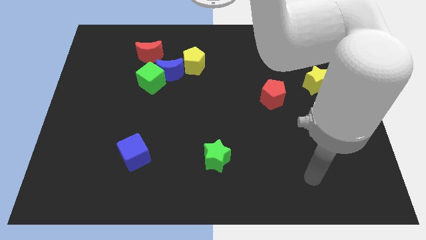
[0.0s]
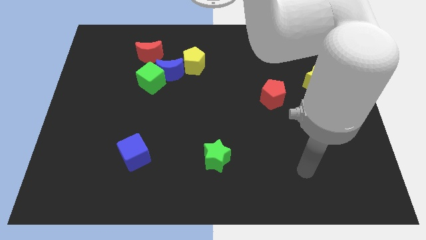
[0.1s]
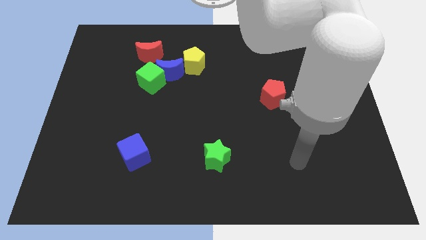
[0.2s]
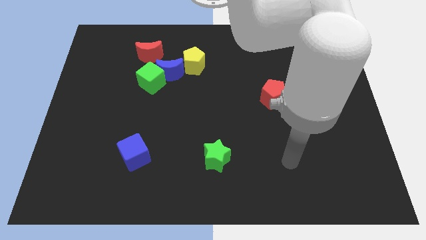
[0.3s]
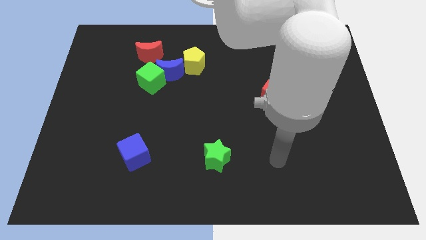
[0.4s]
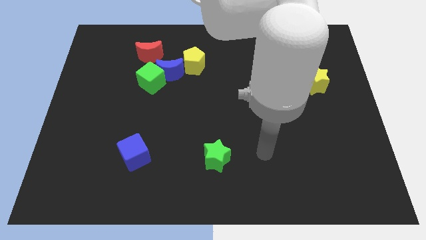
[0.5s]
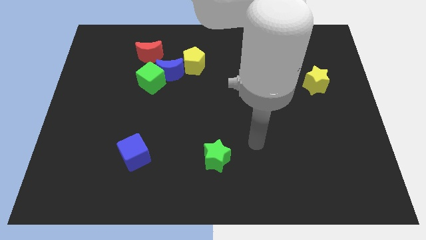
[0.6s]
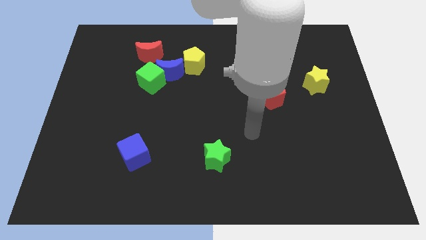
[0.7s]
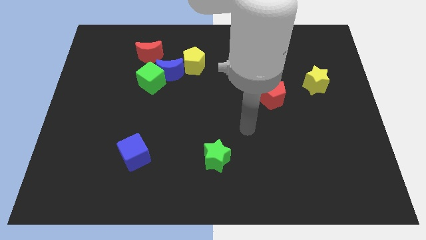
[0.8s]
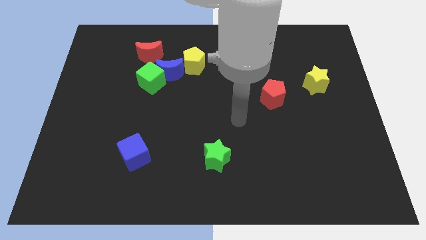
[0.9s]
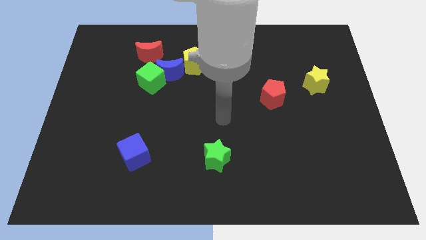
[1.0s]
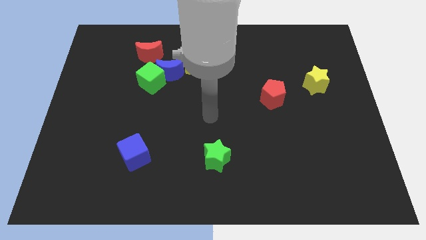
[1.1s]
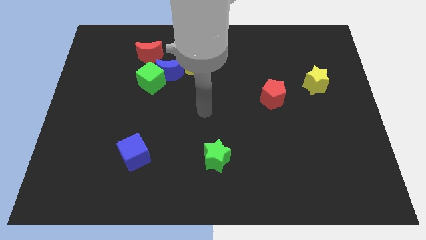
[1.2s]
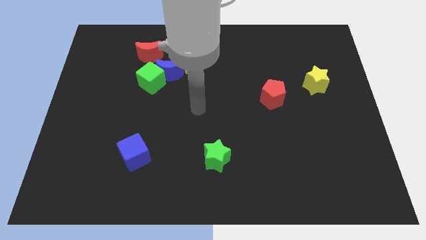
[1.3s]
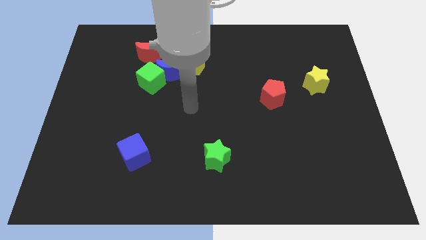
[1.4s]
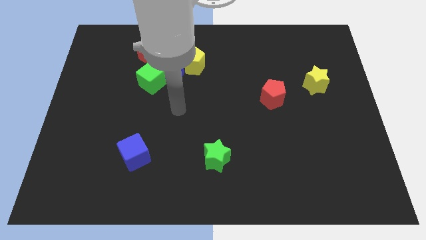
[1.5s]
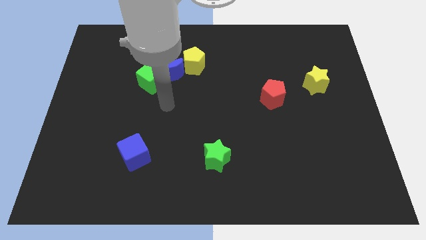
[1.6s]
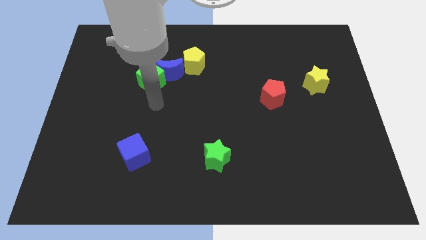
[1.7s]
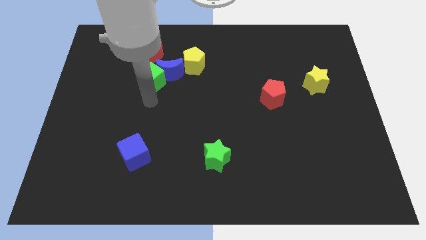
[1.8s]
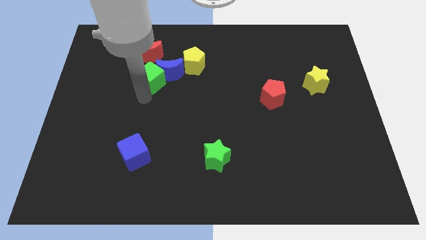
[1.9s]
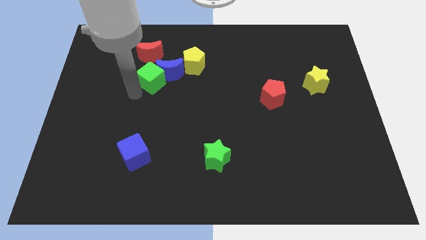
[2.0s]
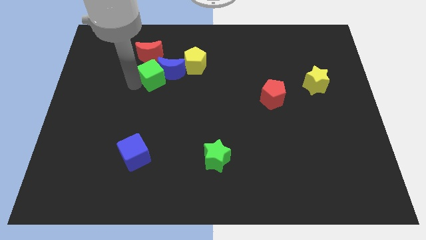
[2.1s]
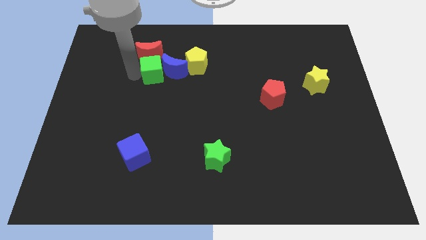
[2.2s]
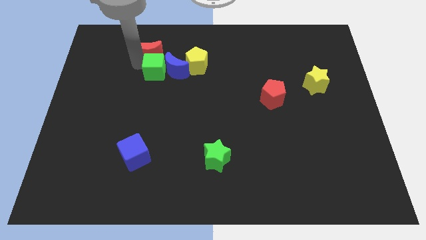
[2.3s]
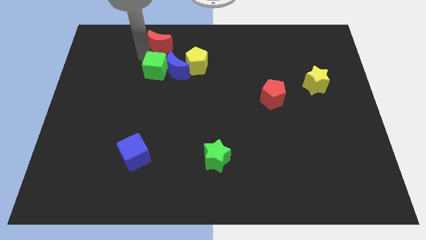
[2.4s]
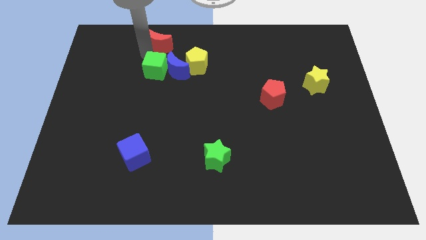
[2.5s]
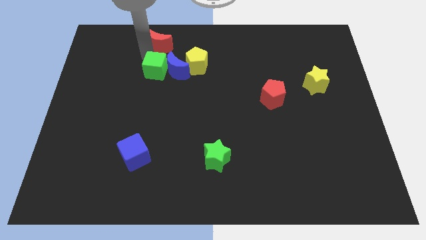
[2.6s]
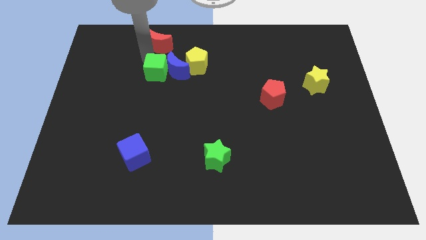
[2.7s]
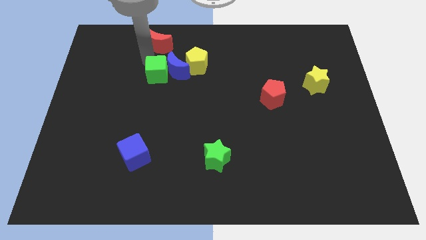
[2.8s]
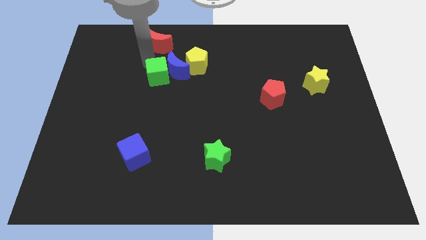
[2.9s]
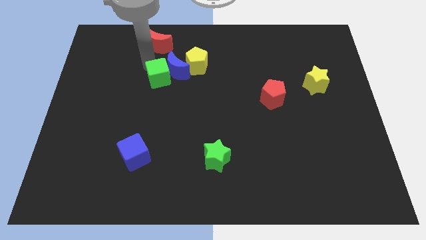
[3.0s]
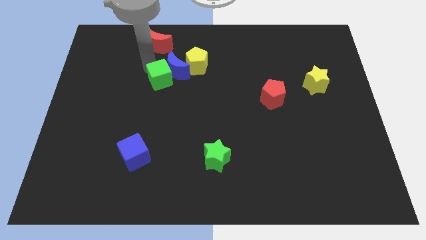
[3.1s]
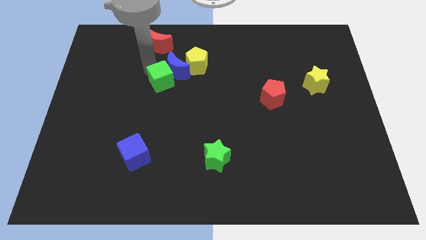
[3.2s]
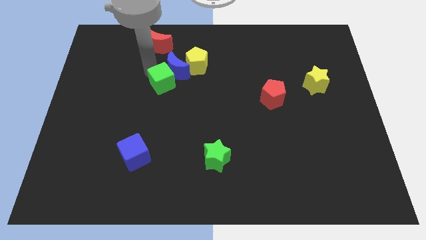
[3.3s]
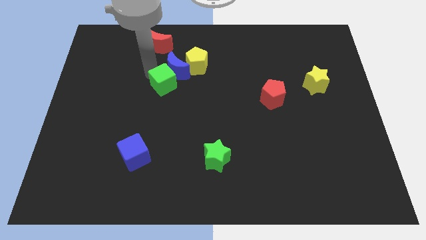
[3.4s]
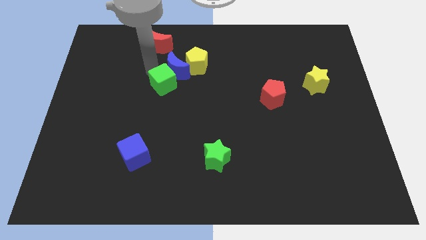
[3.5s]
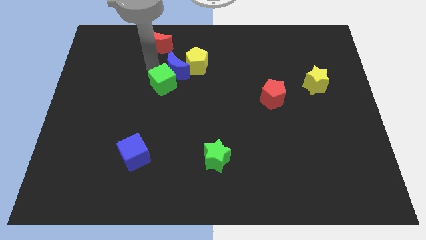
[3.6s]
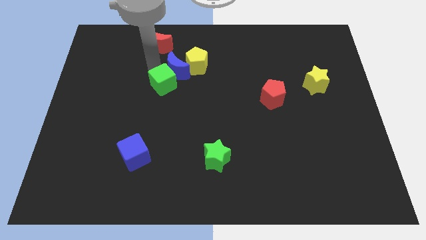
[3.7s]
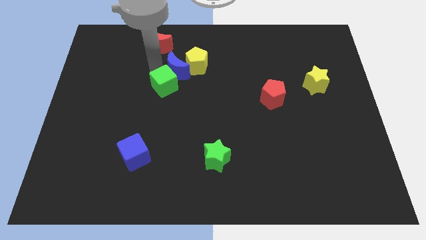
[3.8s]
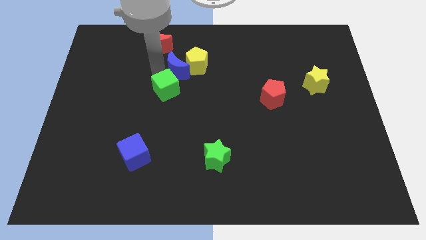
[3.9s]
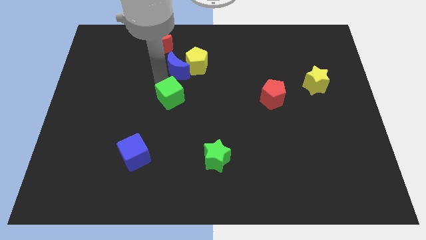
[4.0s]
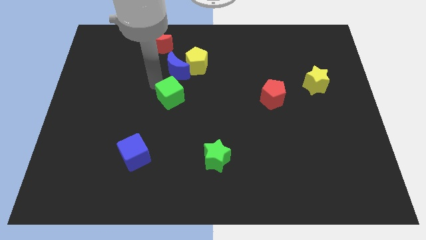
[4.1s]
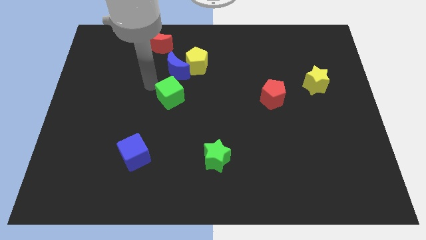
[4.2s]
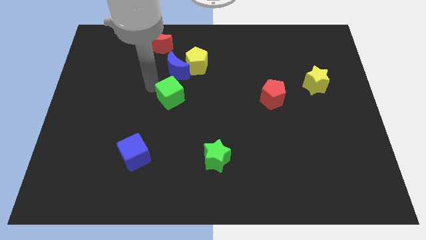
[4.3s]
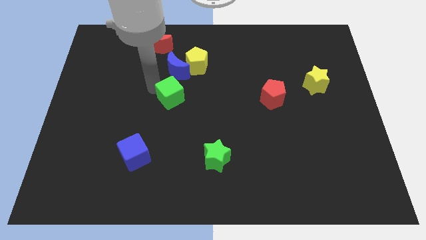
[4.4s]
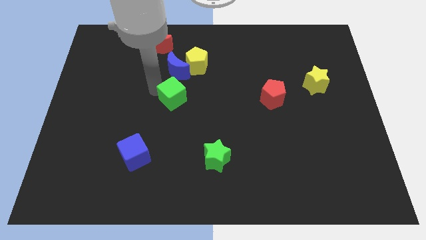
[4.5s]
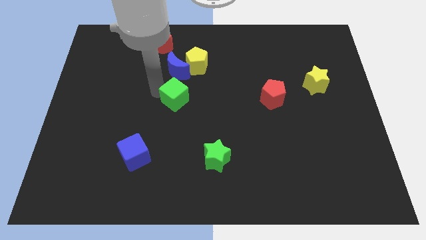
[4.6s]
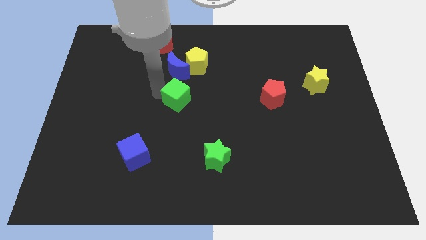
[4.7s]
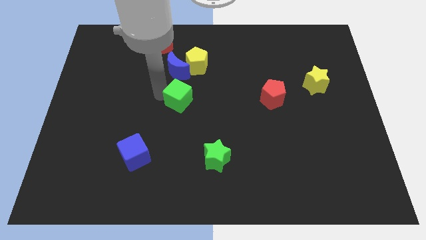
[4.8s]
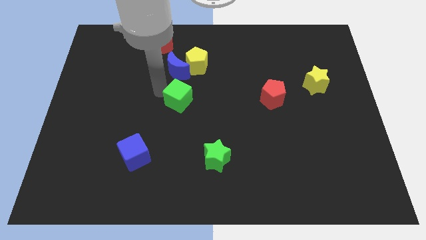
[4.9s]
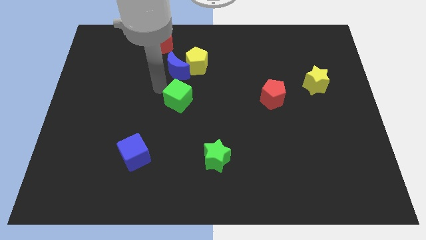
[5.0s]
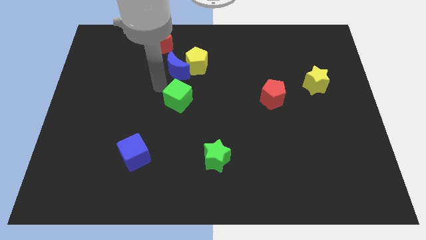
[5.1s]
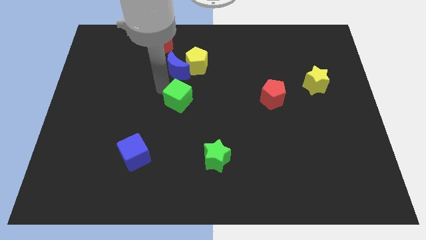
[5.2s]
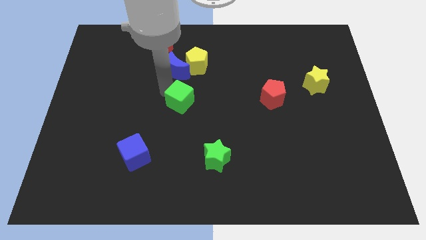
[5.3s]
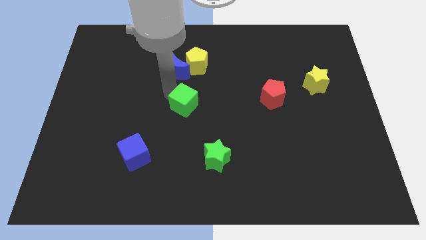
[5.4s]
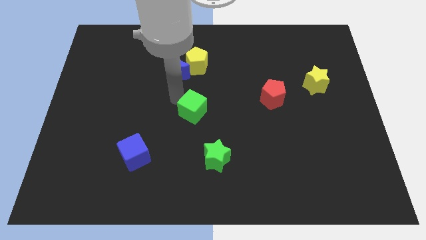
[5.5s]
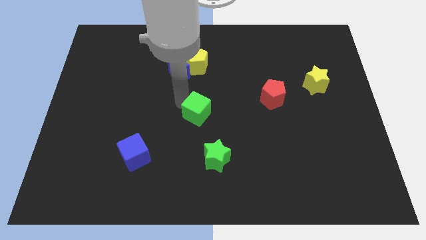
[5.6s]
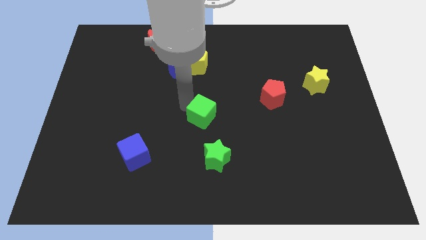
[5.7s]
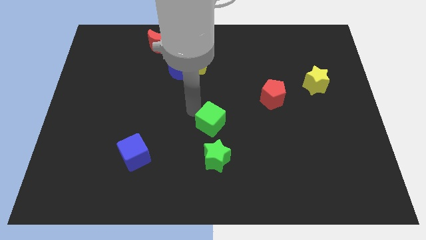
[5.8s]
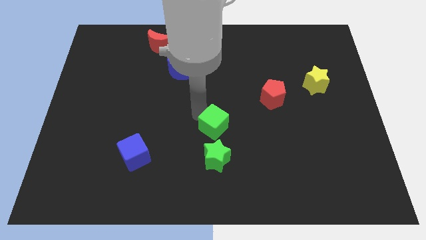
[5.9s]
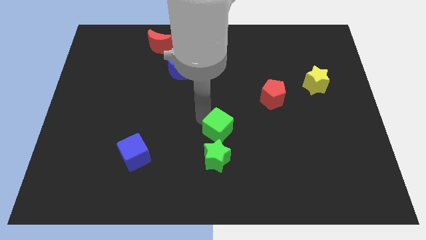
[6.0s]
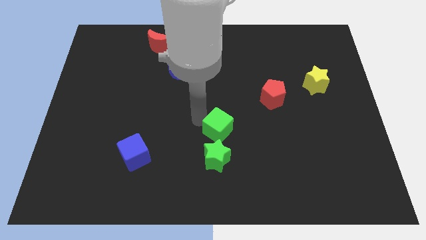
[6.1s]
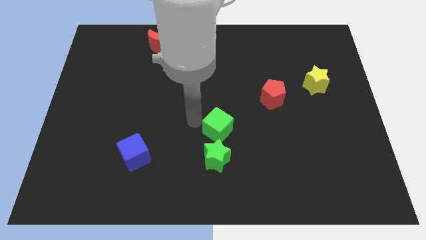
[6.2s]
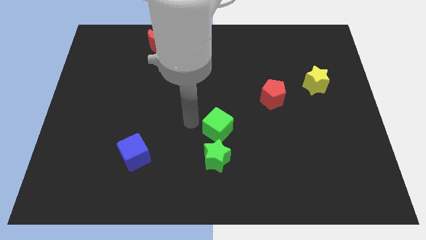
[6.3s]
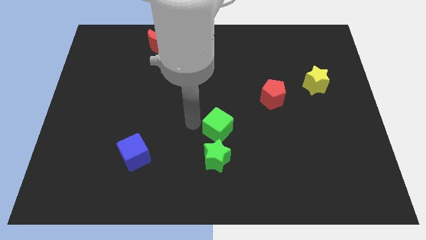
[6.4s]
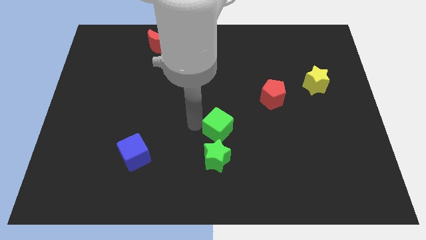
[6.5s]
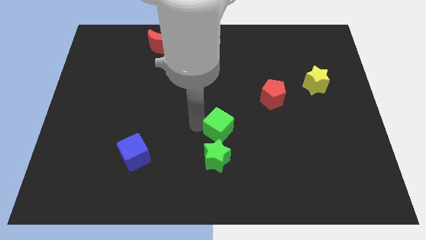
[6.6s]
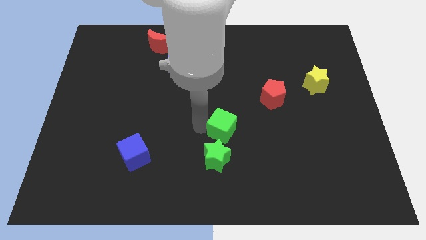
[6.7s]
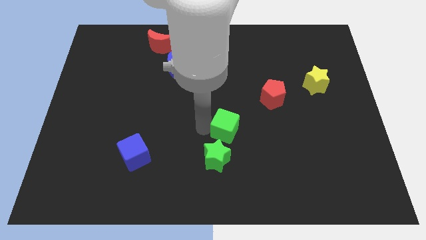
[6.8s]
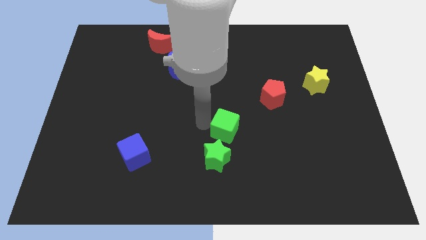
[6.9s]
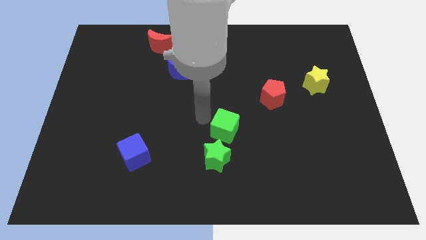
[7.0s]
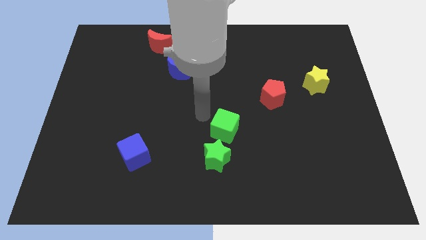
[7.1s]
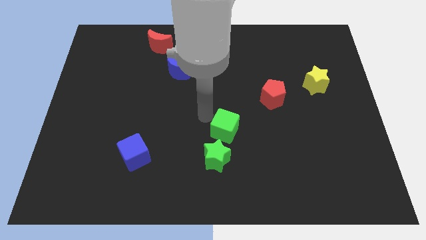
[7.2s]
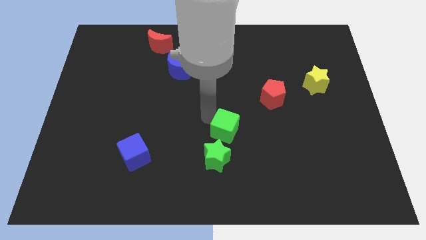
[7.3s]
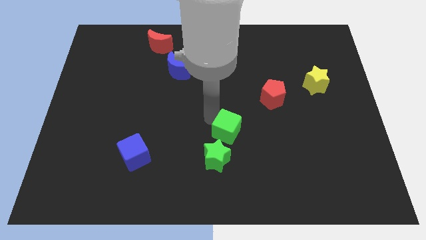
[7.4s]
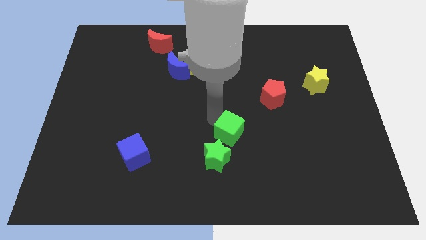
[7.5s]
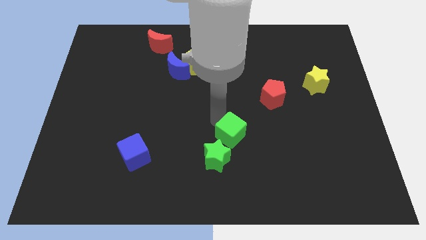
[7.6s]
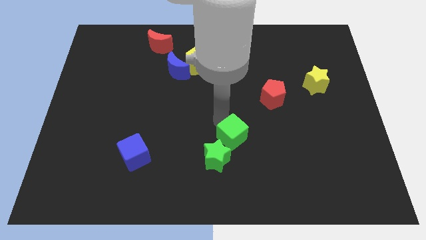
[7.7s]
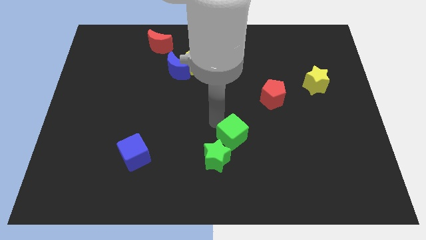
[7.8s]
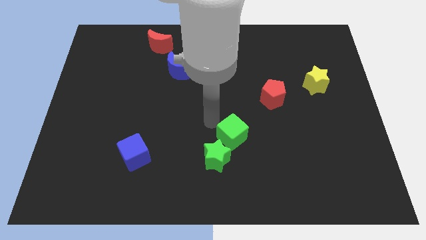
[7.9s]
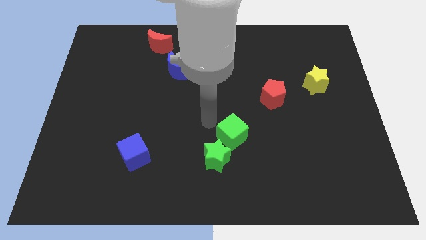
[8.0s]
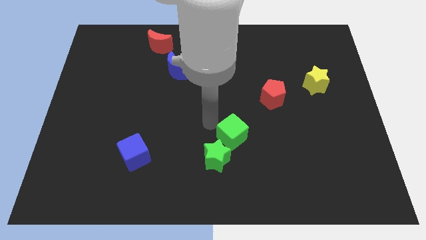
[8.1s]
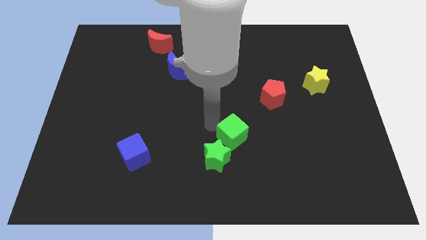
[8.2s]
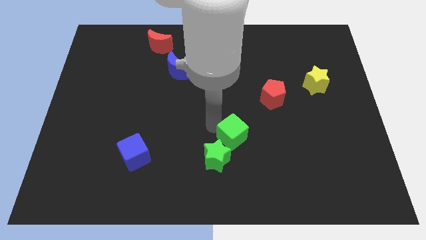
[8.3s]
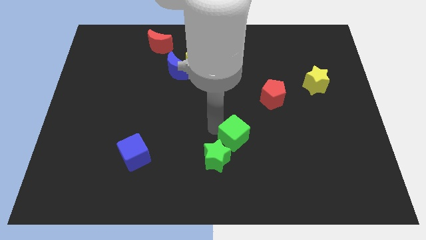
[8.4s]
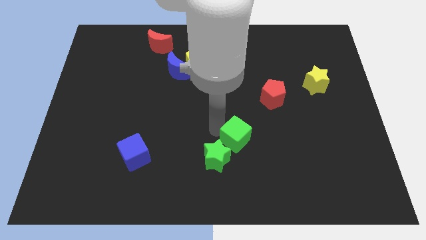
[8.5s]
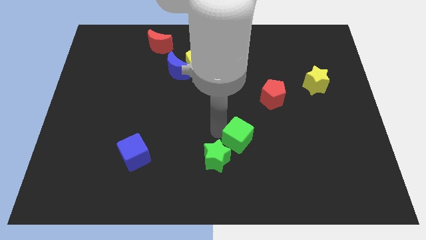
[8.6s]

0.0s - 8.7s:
push the green cube to the right side of the green star
